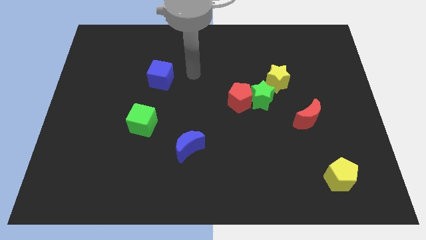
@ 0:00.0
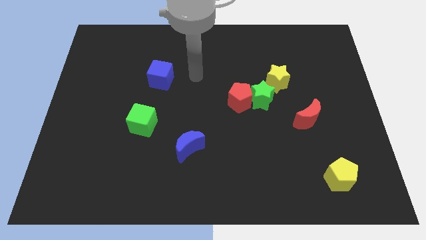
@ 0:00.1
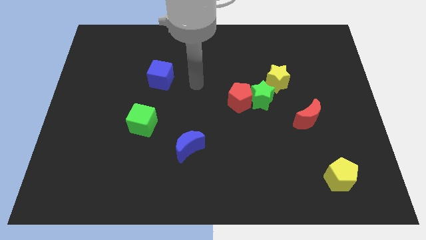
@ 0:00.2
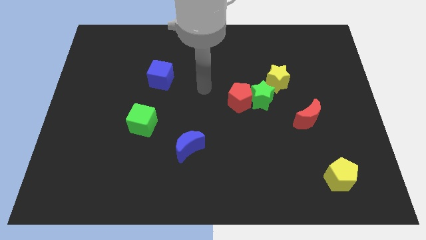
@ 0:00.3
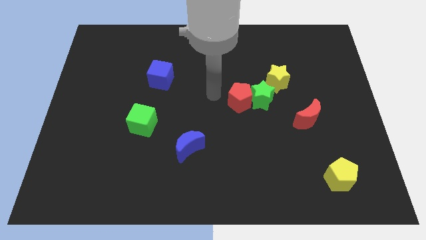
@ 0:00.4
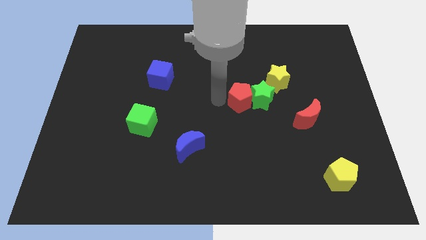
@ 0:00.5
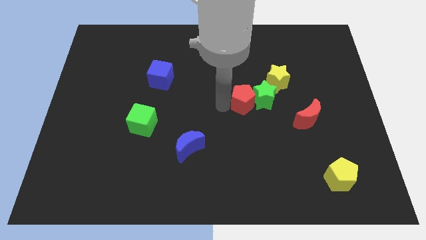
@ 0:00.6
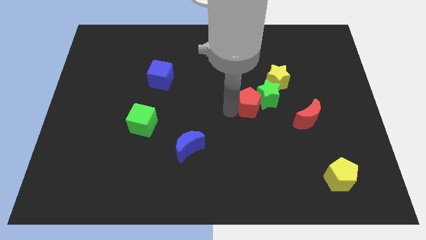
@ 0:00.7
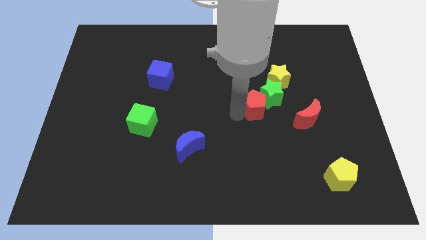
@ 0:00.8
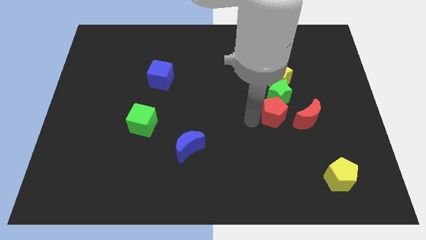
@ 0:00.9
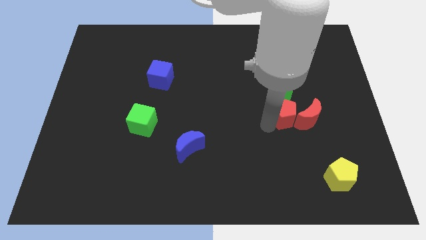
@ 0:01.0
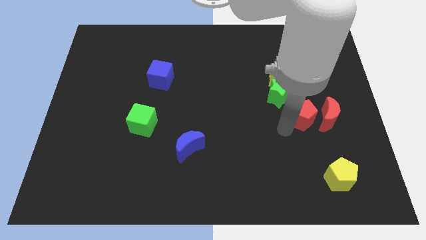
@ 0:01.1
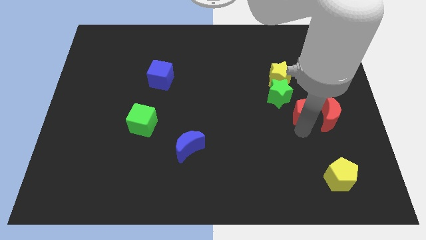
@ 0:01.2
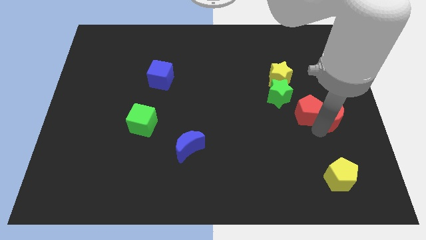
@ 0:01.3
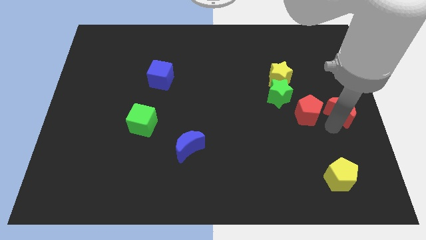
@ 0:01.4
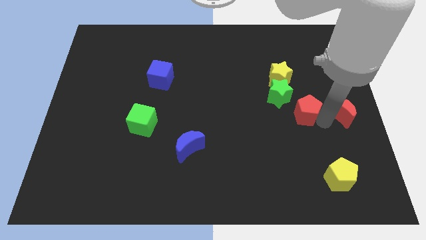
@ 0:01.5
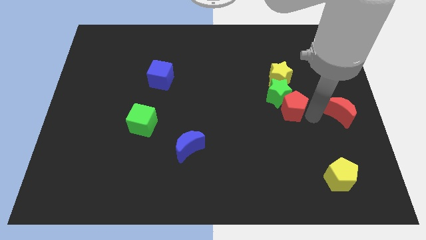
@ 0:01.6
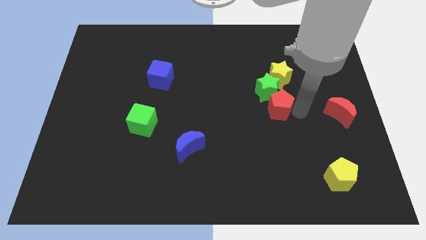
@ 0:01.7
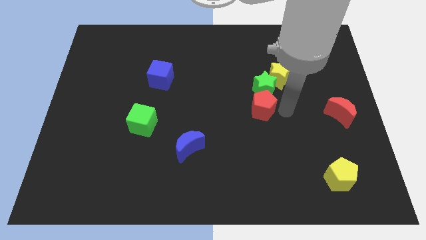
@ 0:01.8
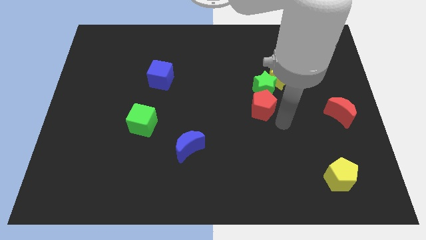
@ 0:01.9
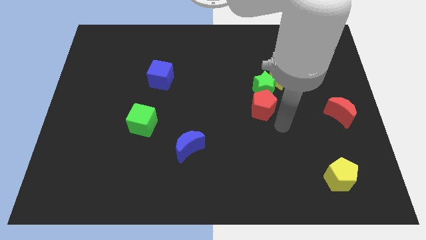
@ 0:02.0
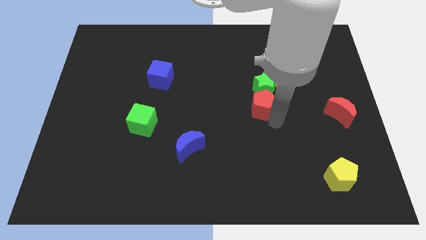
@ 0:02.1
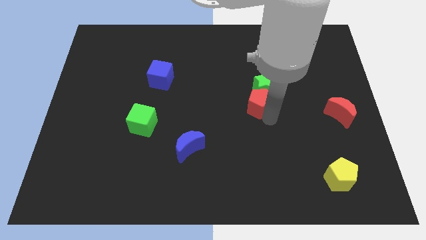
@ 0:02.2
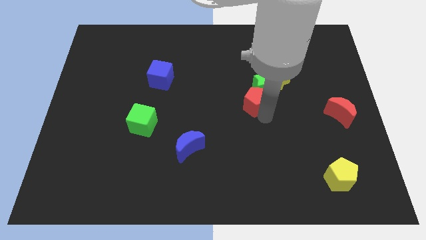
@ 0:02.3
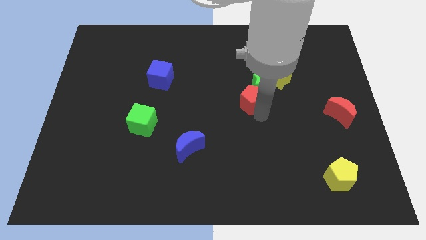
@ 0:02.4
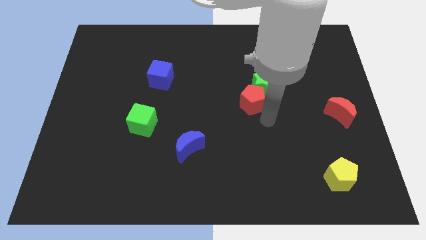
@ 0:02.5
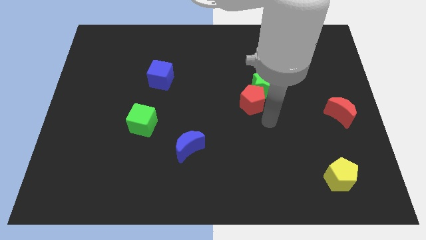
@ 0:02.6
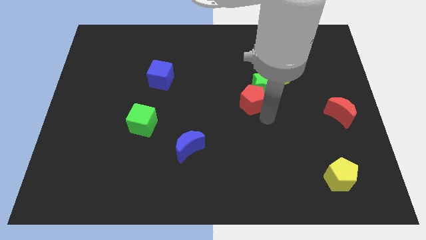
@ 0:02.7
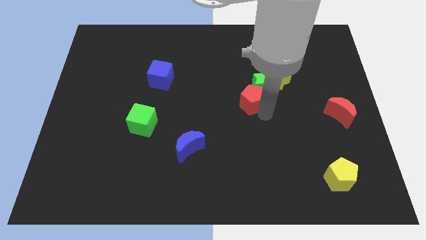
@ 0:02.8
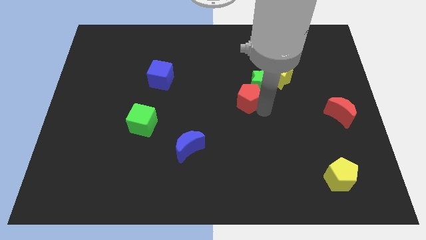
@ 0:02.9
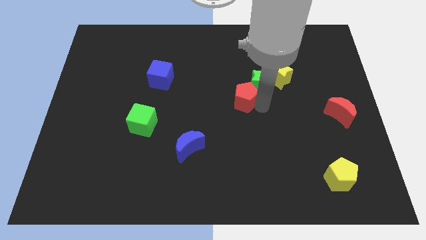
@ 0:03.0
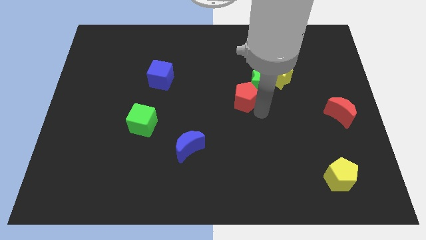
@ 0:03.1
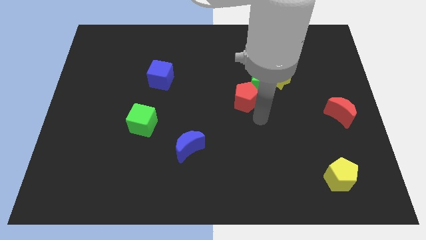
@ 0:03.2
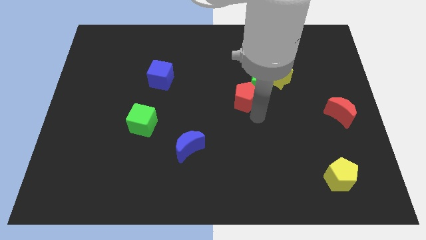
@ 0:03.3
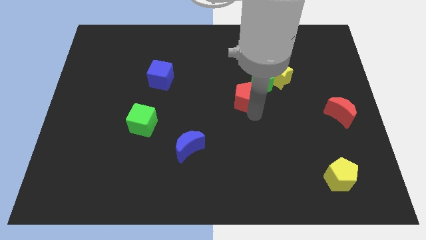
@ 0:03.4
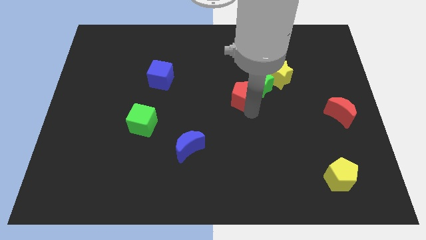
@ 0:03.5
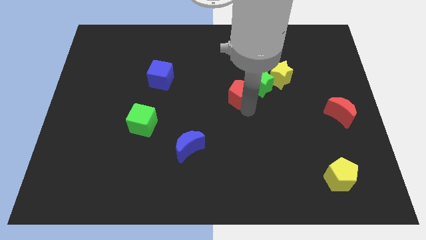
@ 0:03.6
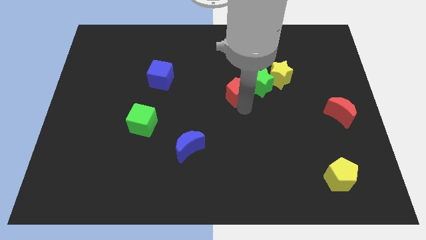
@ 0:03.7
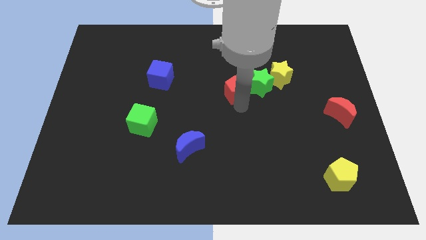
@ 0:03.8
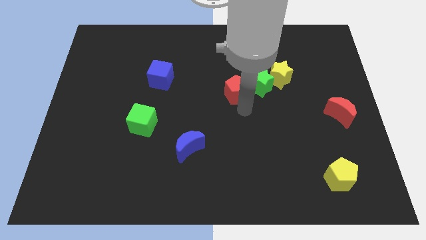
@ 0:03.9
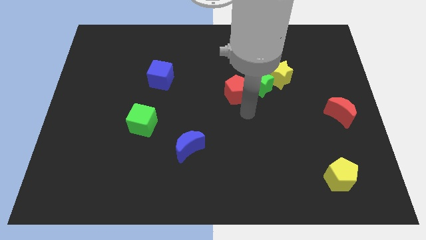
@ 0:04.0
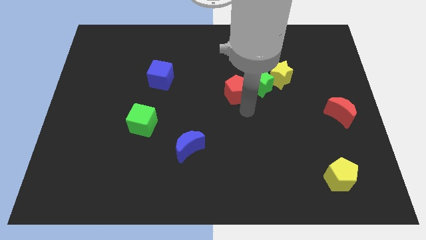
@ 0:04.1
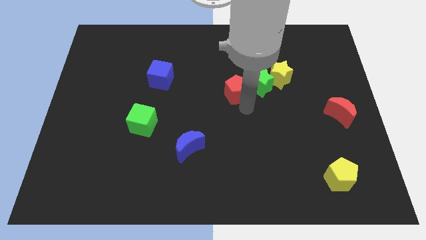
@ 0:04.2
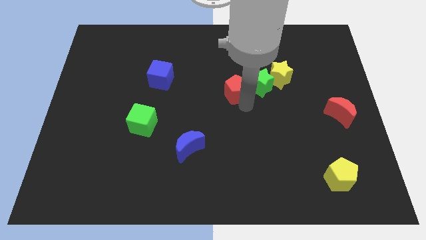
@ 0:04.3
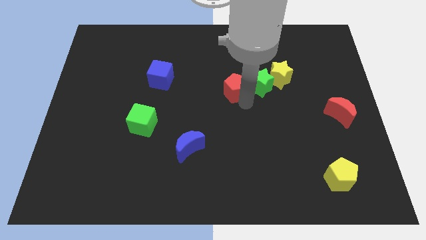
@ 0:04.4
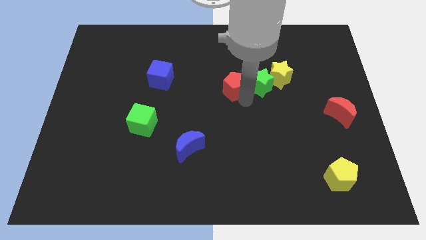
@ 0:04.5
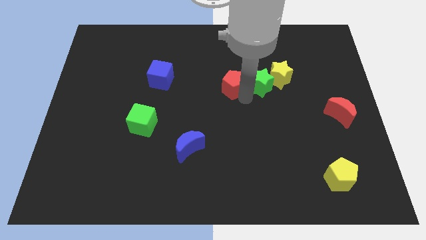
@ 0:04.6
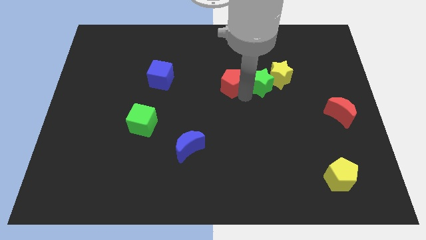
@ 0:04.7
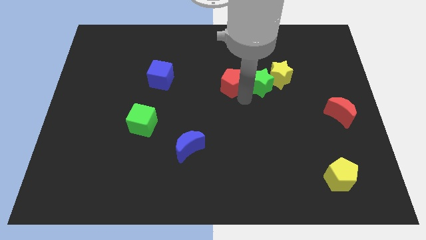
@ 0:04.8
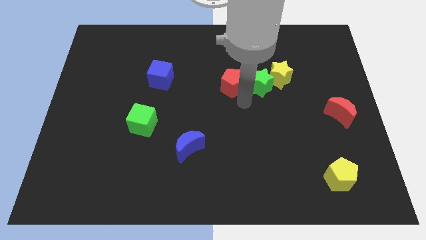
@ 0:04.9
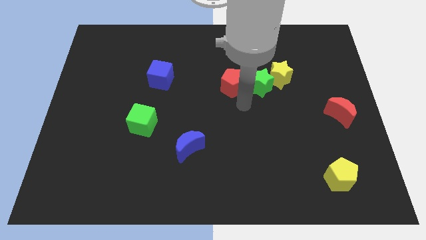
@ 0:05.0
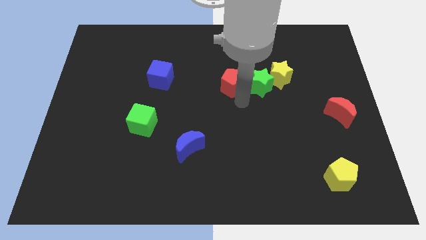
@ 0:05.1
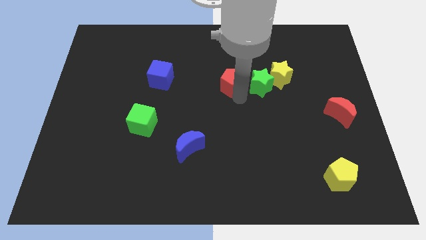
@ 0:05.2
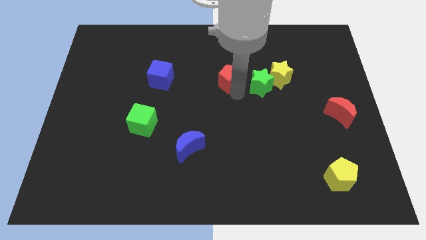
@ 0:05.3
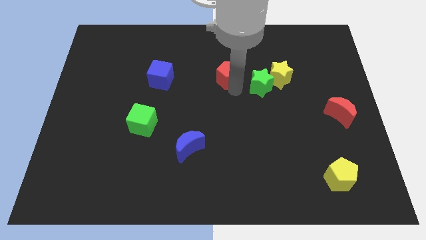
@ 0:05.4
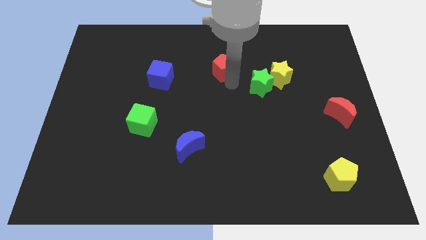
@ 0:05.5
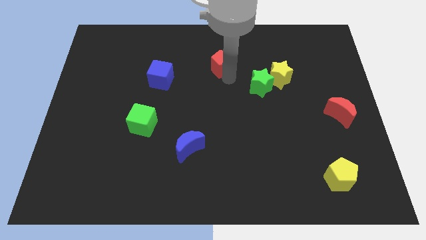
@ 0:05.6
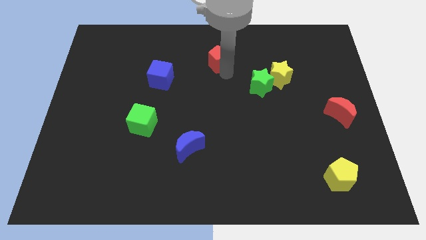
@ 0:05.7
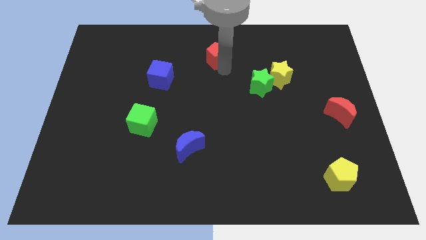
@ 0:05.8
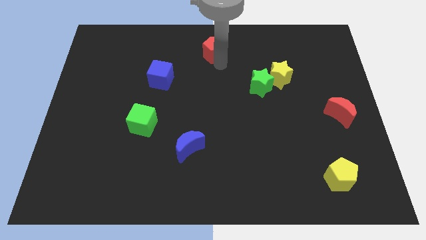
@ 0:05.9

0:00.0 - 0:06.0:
slide the red pentagon to the towards your base

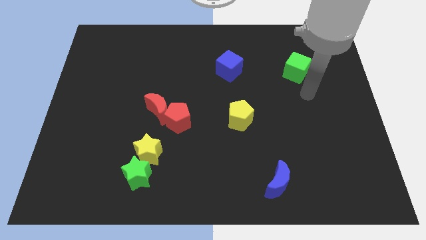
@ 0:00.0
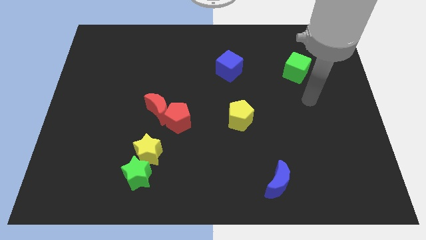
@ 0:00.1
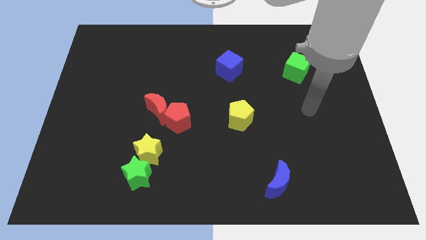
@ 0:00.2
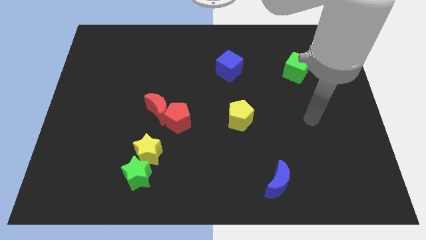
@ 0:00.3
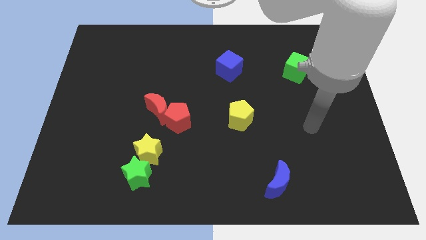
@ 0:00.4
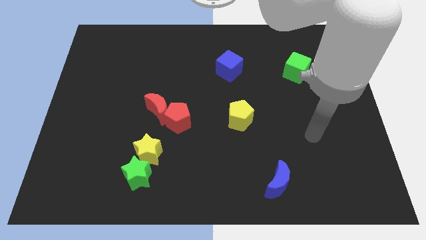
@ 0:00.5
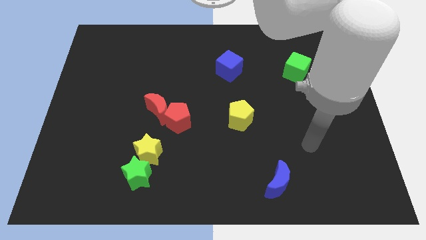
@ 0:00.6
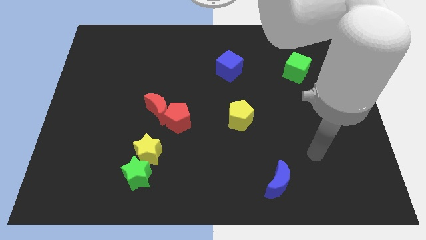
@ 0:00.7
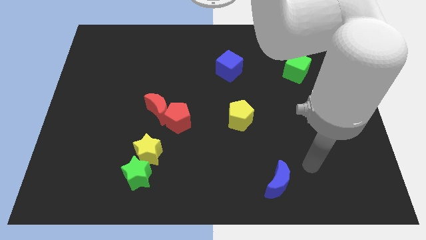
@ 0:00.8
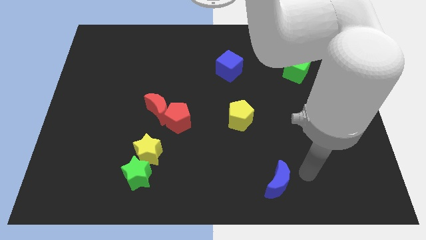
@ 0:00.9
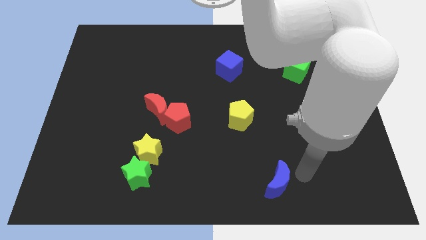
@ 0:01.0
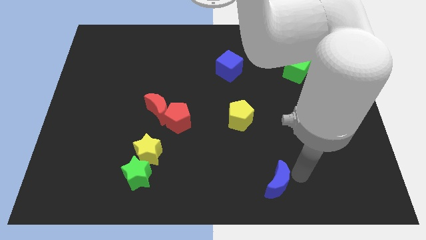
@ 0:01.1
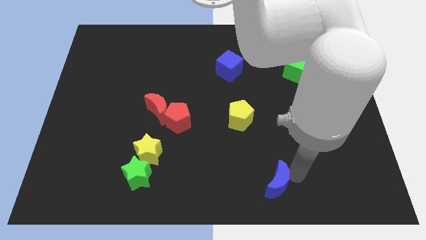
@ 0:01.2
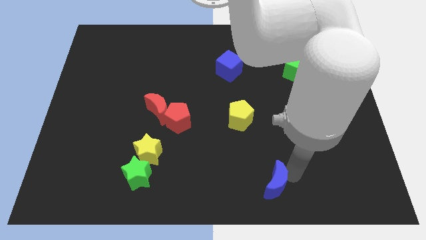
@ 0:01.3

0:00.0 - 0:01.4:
put the blue moon to the bottom side
